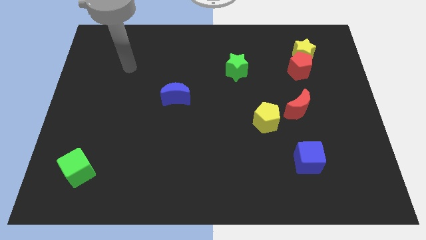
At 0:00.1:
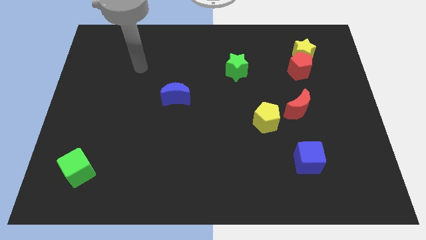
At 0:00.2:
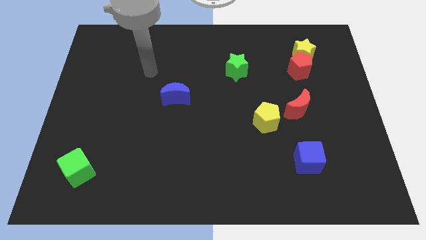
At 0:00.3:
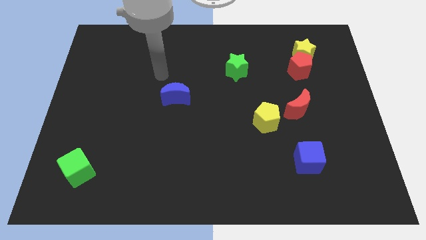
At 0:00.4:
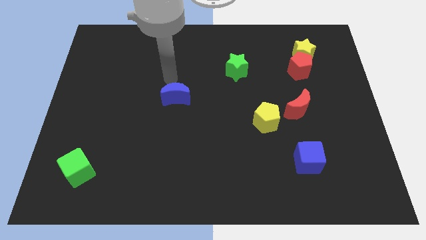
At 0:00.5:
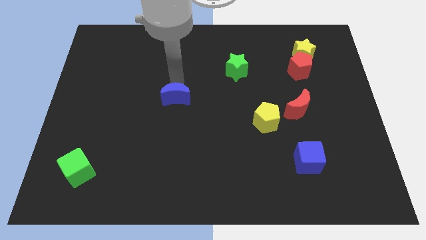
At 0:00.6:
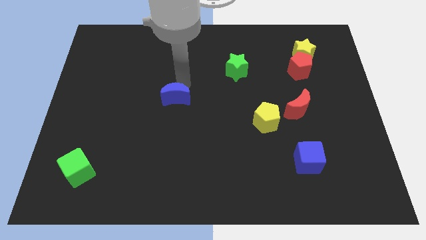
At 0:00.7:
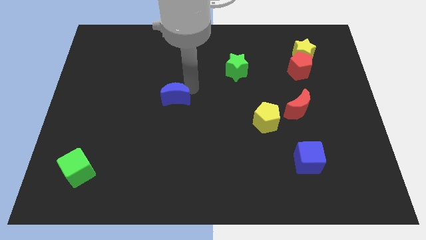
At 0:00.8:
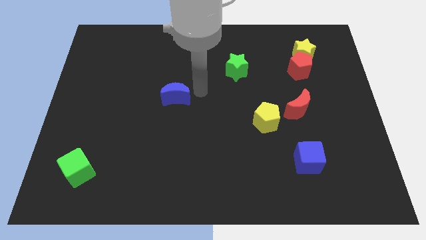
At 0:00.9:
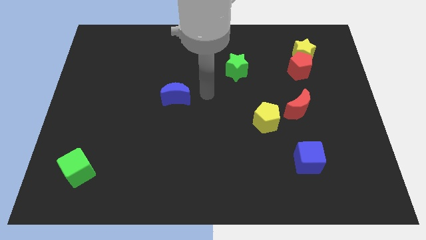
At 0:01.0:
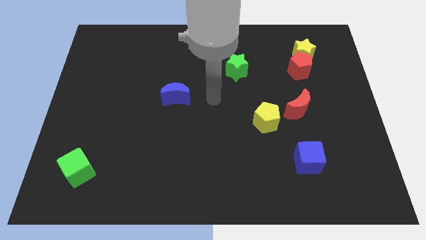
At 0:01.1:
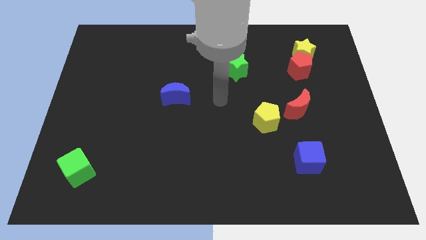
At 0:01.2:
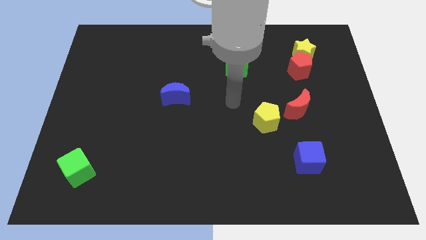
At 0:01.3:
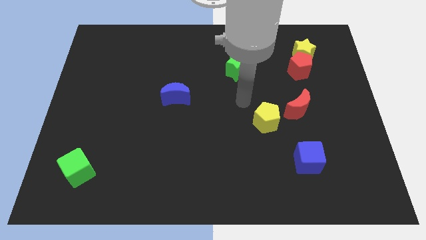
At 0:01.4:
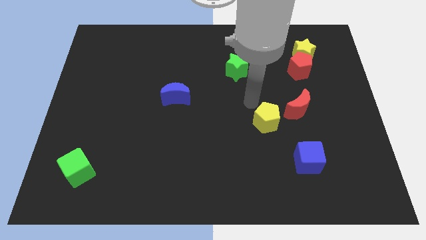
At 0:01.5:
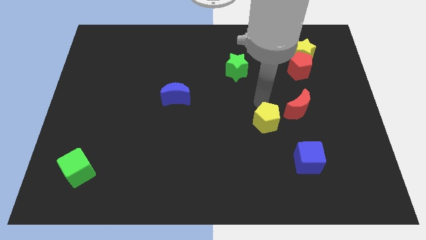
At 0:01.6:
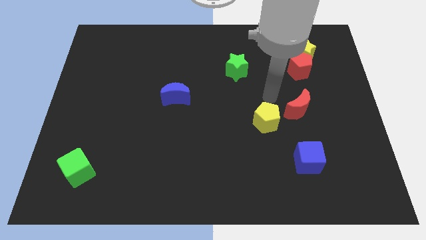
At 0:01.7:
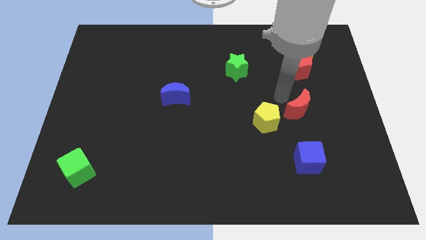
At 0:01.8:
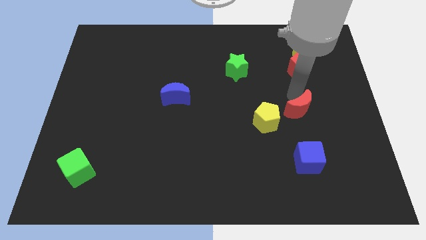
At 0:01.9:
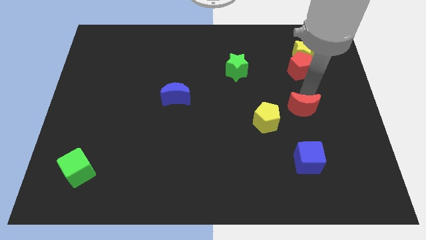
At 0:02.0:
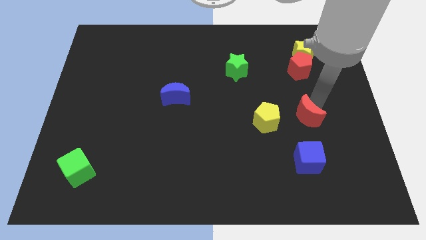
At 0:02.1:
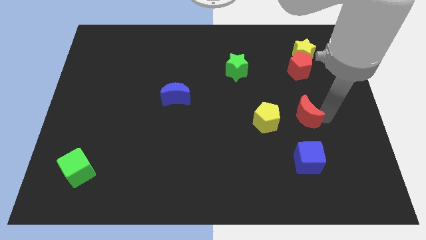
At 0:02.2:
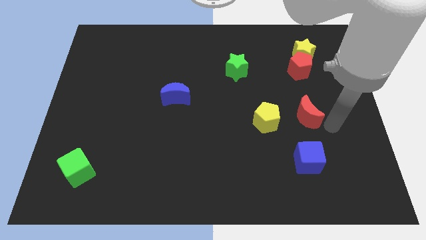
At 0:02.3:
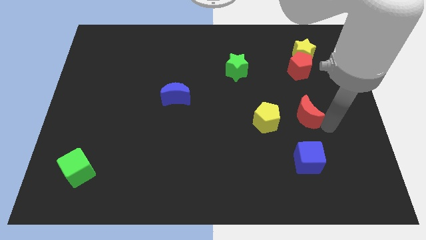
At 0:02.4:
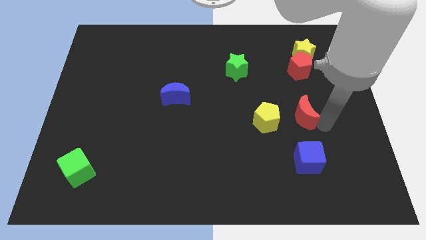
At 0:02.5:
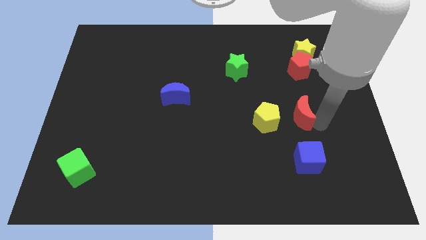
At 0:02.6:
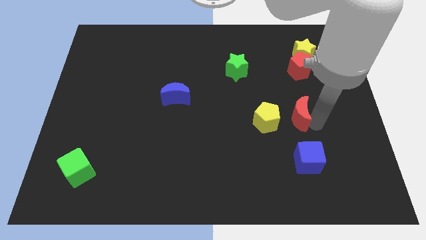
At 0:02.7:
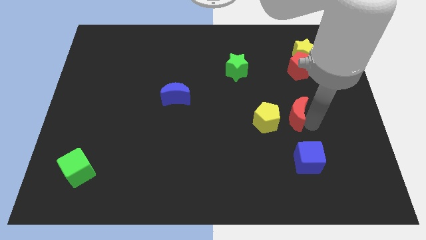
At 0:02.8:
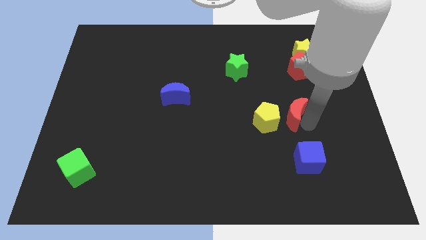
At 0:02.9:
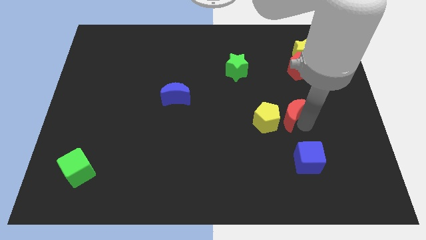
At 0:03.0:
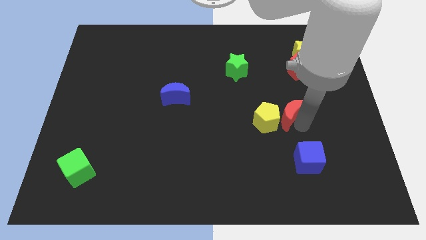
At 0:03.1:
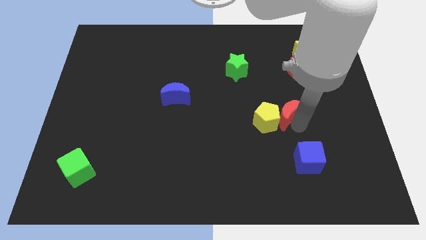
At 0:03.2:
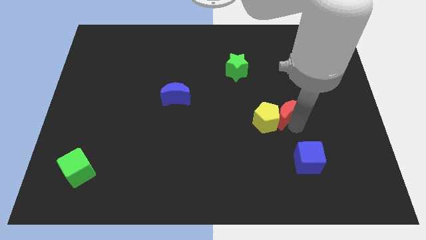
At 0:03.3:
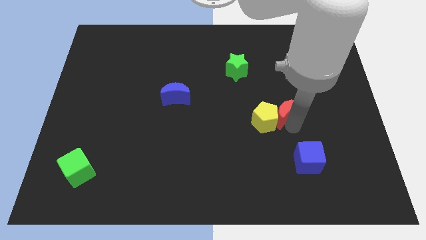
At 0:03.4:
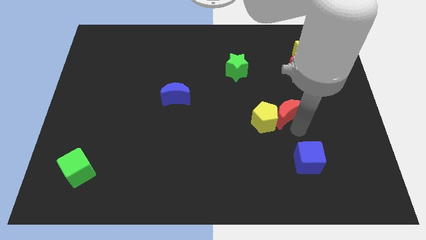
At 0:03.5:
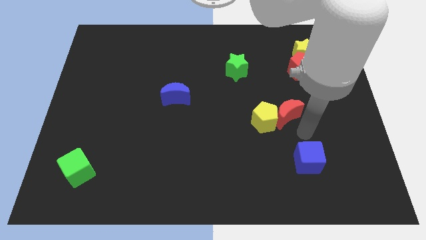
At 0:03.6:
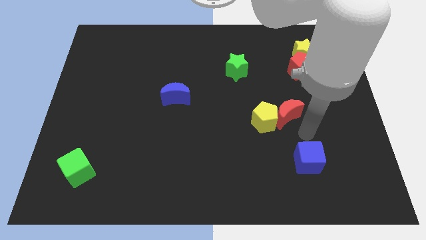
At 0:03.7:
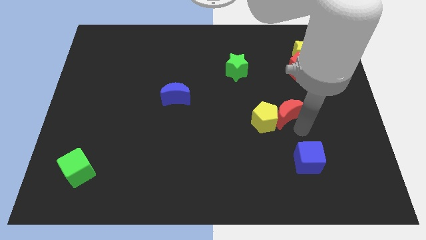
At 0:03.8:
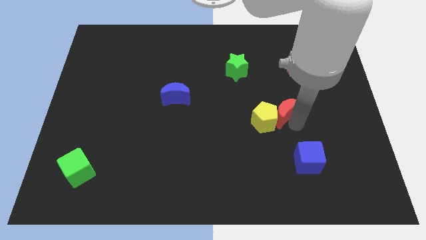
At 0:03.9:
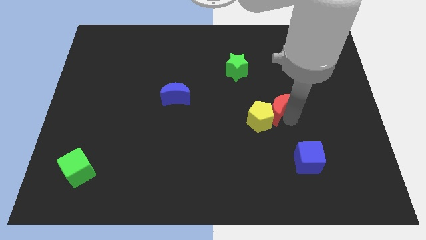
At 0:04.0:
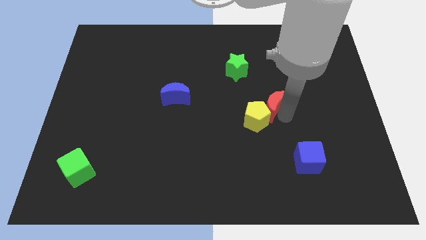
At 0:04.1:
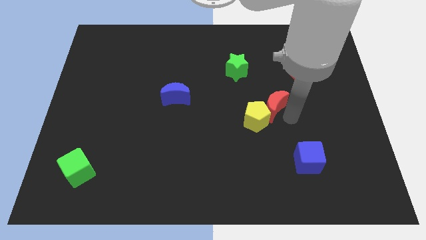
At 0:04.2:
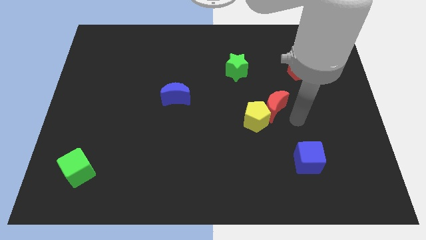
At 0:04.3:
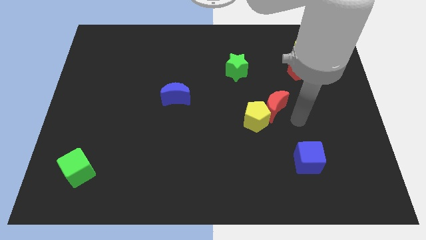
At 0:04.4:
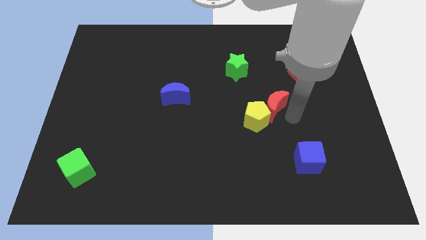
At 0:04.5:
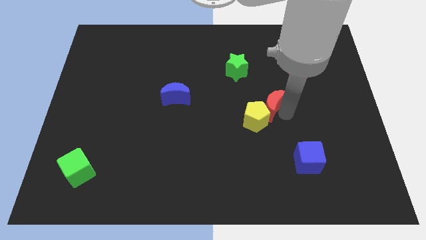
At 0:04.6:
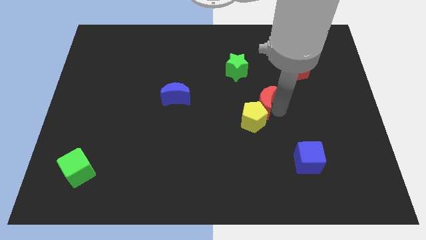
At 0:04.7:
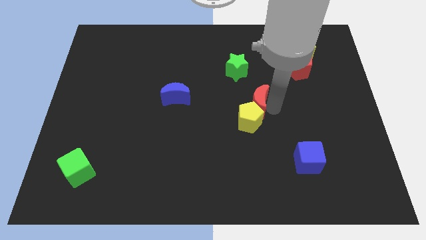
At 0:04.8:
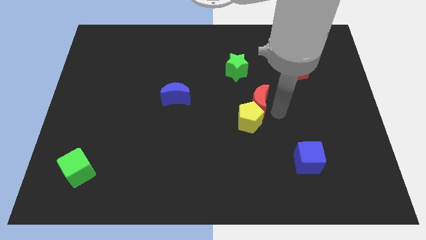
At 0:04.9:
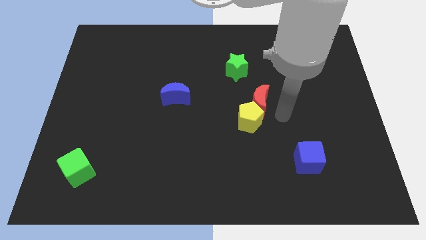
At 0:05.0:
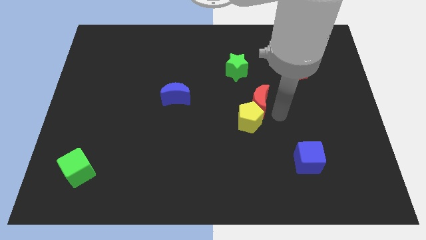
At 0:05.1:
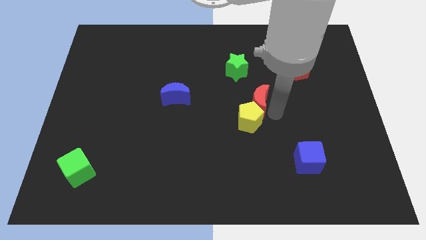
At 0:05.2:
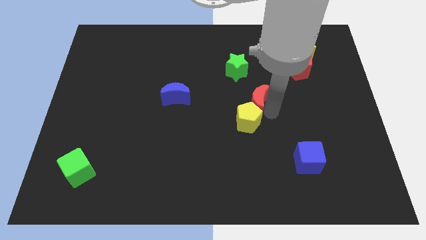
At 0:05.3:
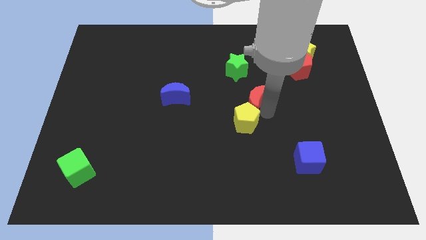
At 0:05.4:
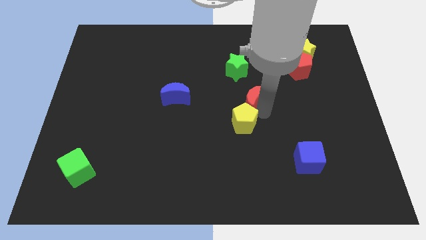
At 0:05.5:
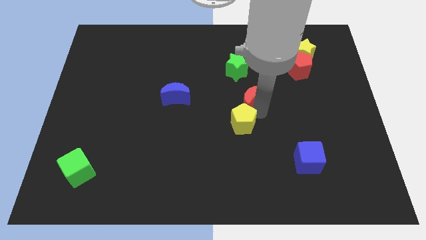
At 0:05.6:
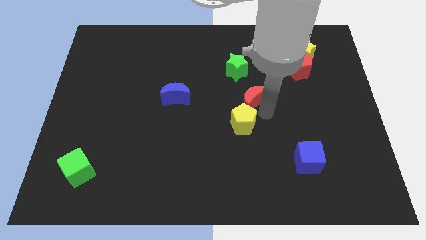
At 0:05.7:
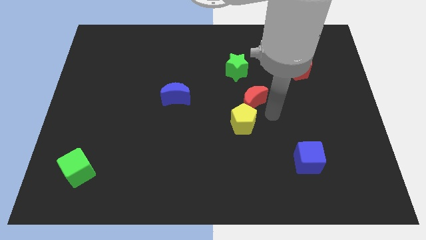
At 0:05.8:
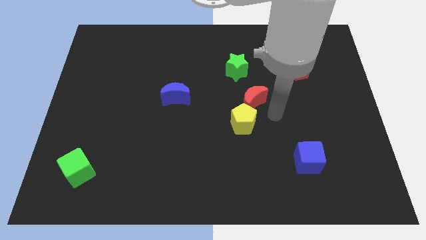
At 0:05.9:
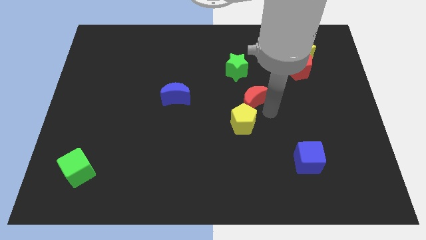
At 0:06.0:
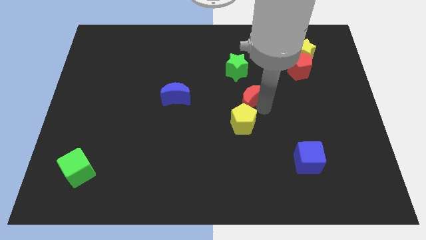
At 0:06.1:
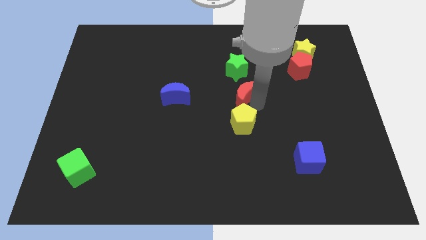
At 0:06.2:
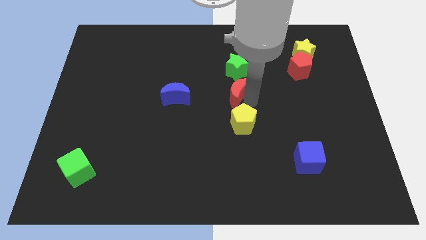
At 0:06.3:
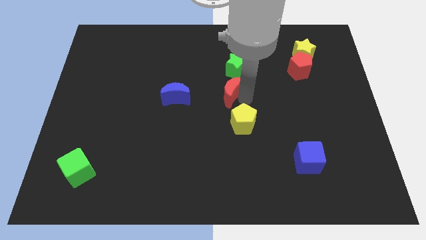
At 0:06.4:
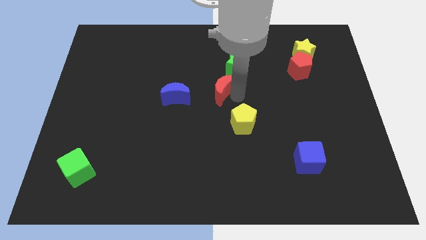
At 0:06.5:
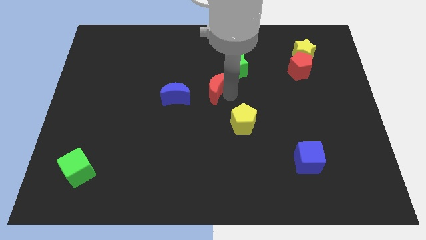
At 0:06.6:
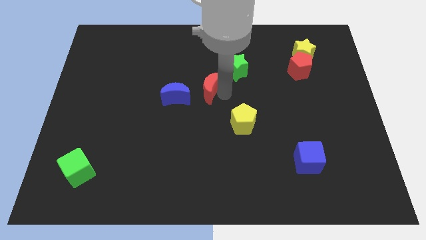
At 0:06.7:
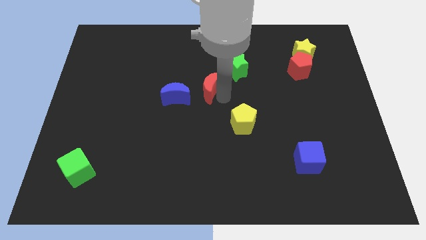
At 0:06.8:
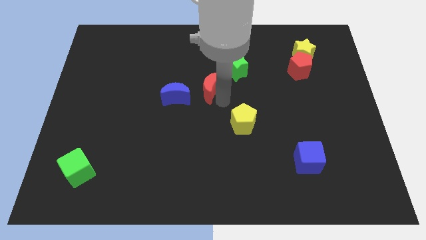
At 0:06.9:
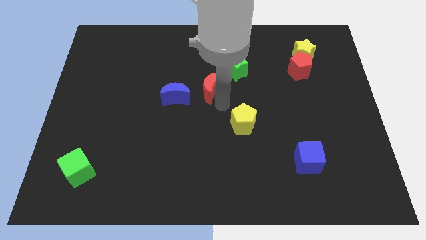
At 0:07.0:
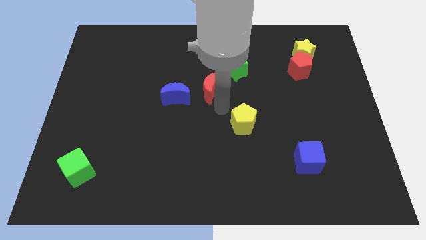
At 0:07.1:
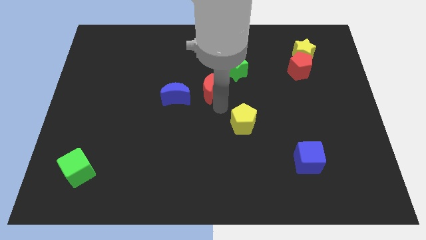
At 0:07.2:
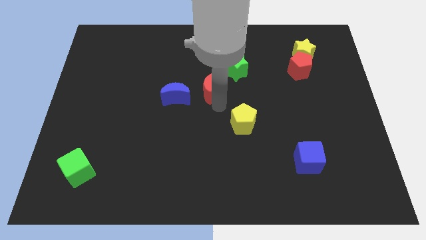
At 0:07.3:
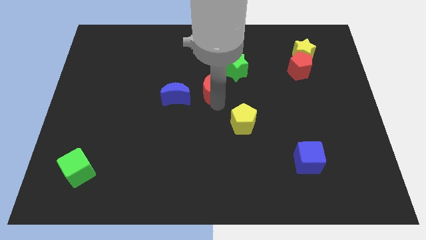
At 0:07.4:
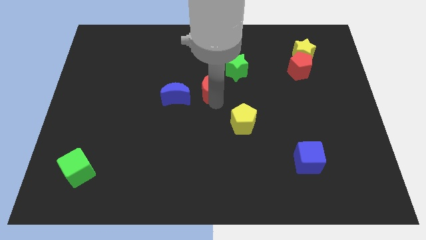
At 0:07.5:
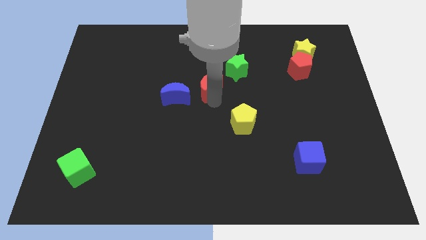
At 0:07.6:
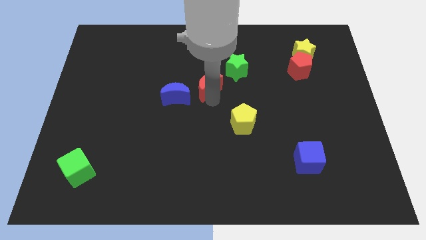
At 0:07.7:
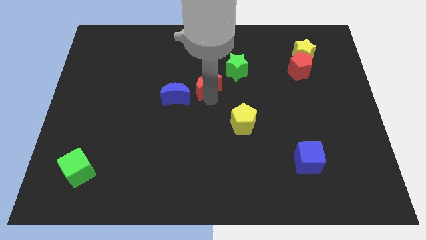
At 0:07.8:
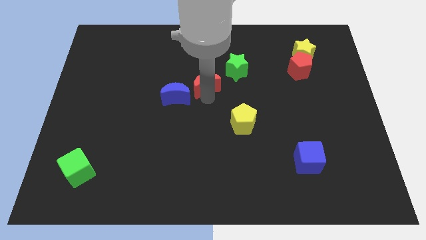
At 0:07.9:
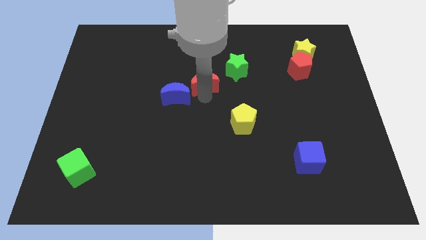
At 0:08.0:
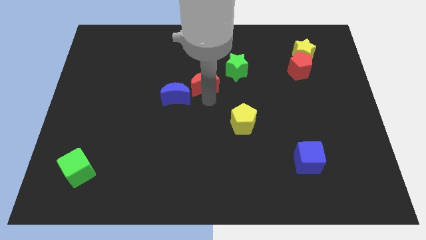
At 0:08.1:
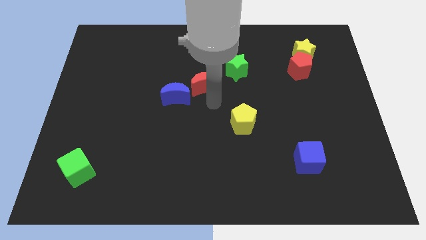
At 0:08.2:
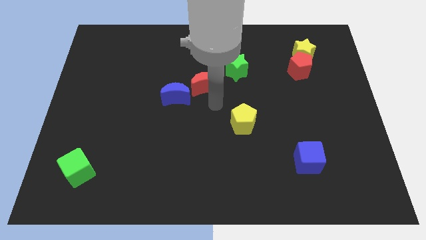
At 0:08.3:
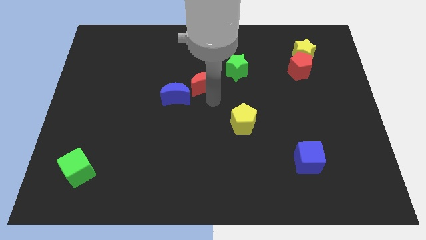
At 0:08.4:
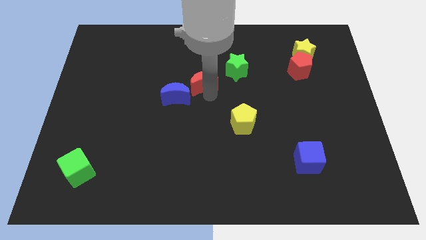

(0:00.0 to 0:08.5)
slide the red moon to the left of the green star
